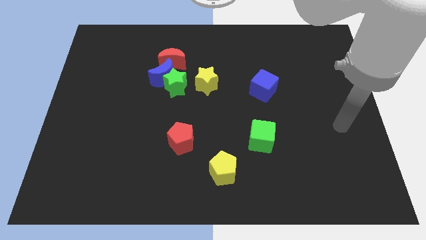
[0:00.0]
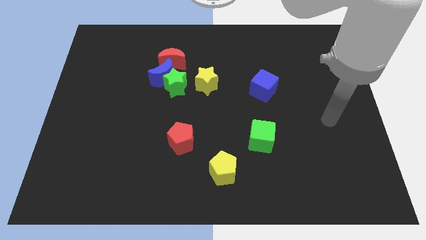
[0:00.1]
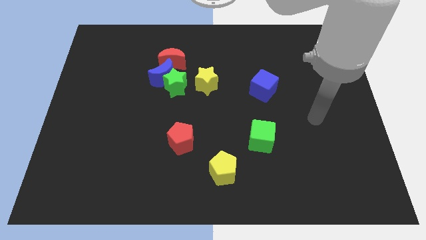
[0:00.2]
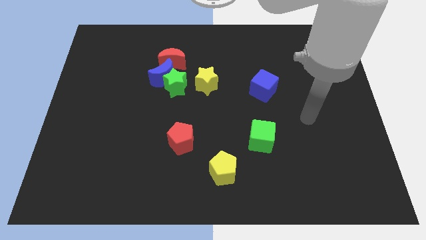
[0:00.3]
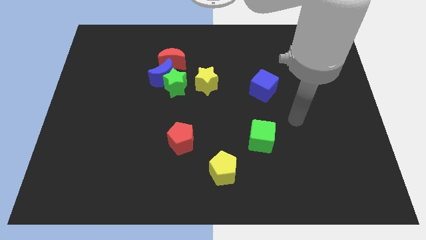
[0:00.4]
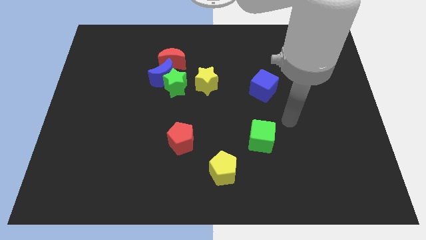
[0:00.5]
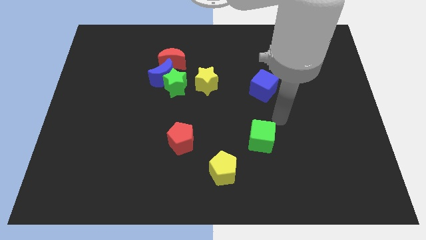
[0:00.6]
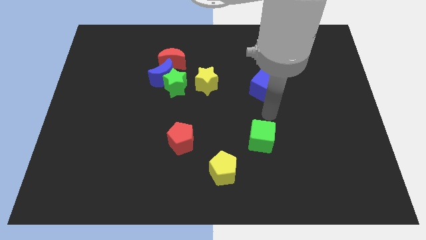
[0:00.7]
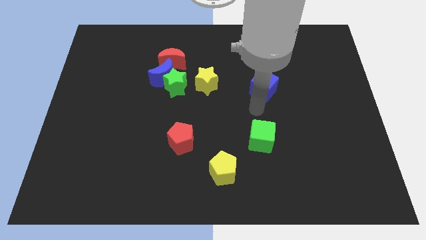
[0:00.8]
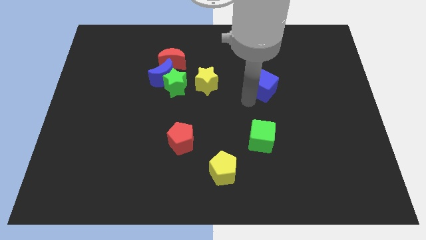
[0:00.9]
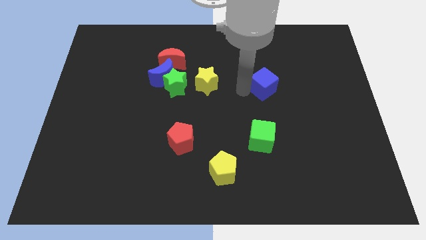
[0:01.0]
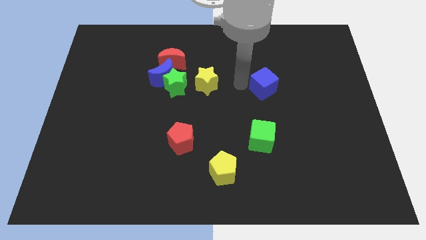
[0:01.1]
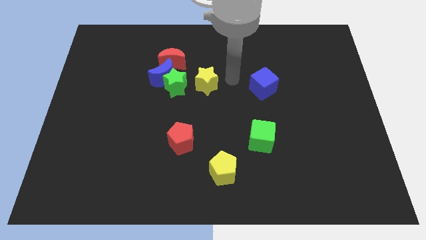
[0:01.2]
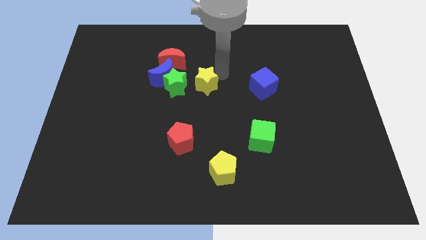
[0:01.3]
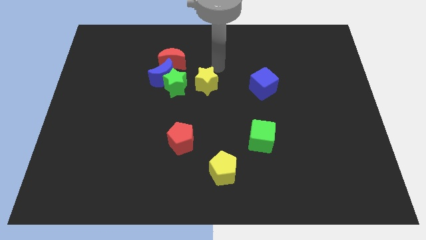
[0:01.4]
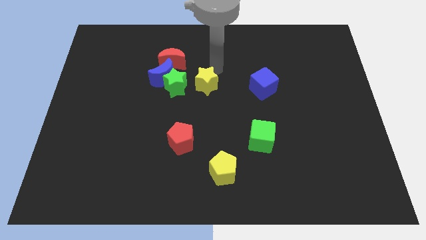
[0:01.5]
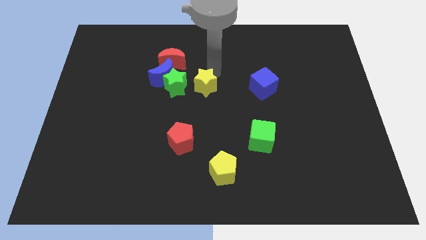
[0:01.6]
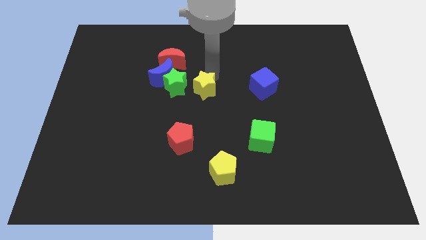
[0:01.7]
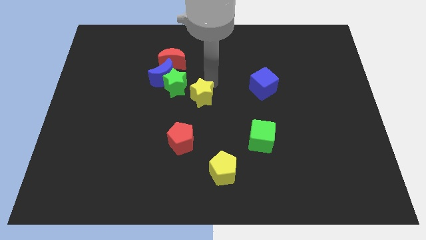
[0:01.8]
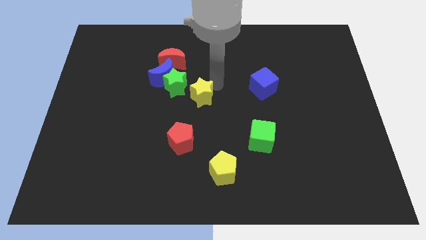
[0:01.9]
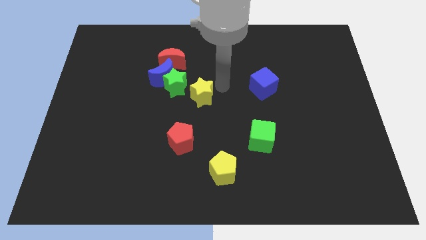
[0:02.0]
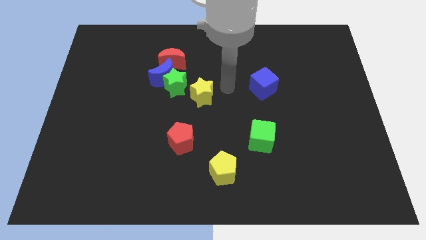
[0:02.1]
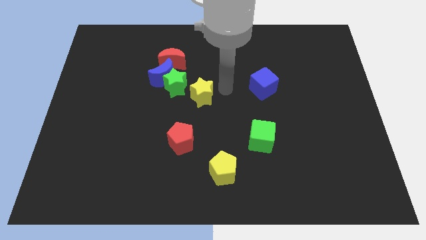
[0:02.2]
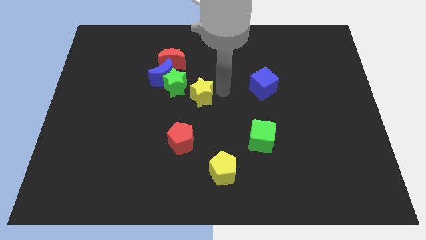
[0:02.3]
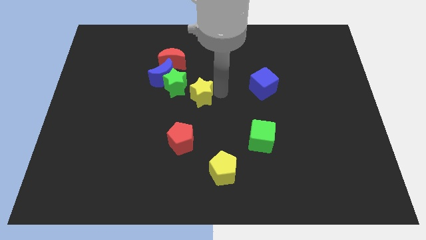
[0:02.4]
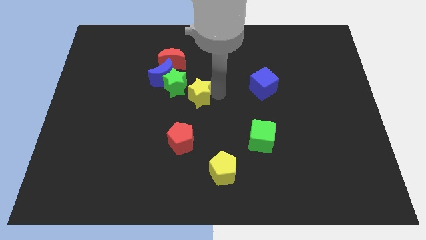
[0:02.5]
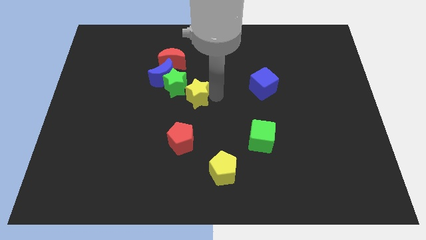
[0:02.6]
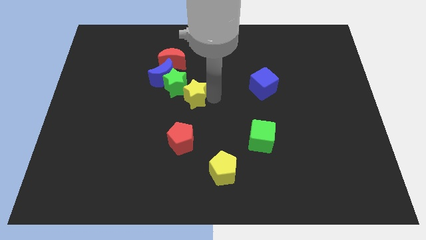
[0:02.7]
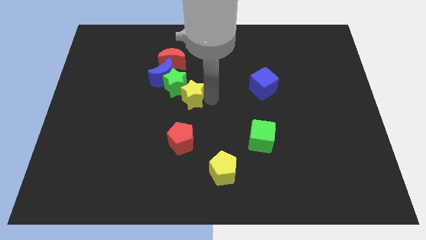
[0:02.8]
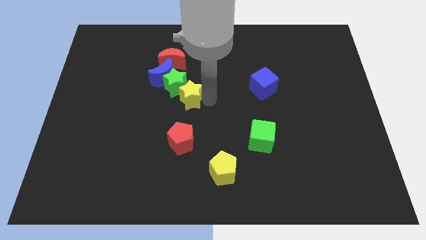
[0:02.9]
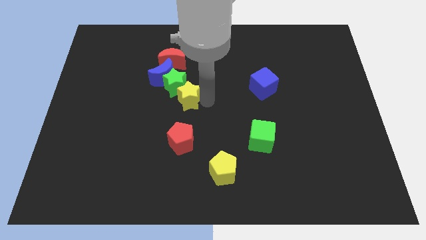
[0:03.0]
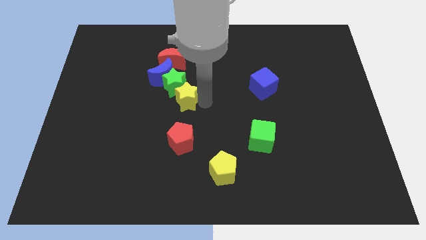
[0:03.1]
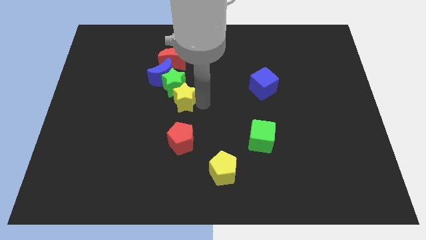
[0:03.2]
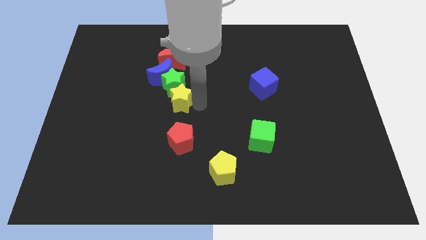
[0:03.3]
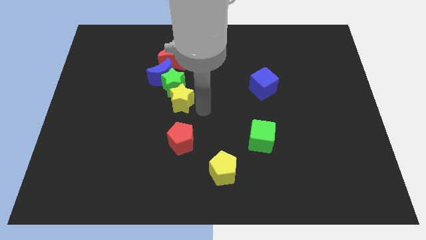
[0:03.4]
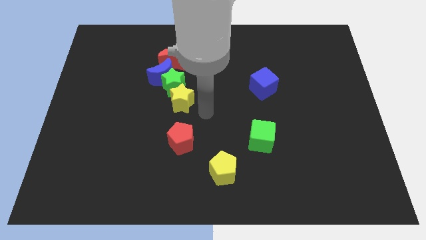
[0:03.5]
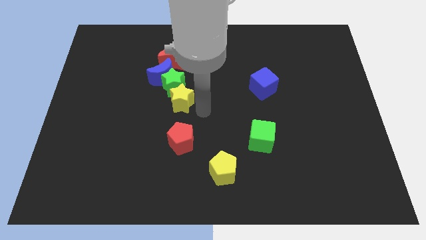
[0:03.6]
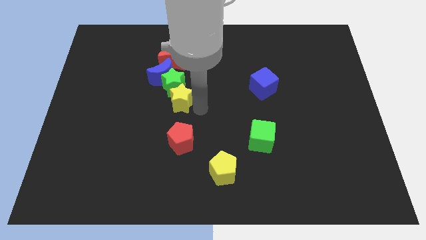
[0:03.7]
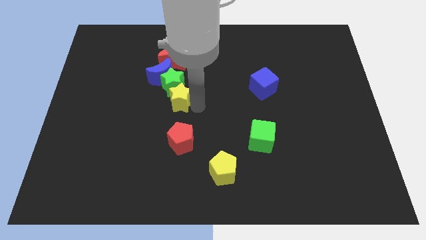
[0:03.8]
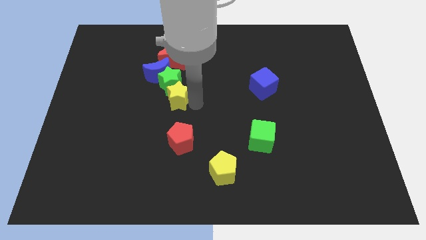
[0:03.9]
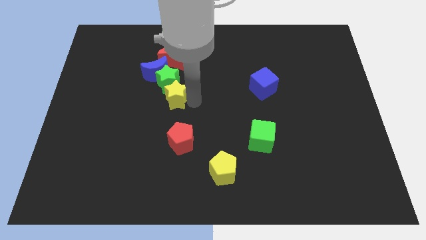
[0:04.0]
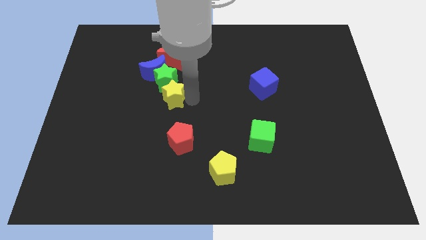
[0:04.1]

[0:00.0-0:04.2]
slide the yellow star a bit left

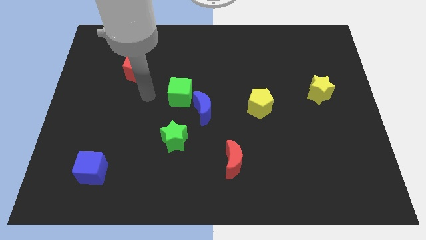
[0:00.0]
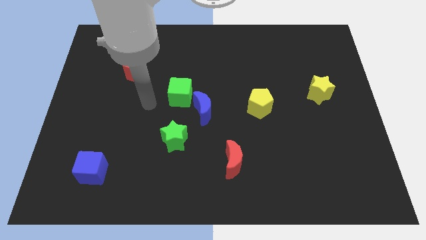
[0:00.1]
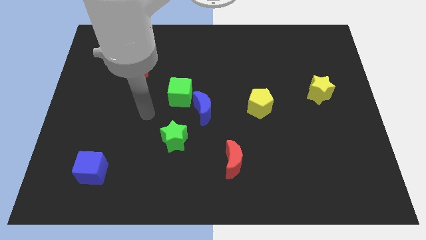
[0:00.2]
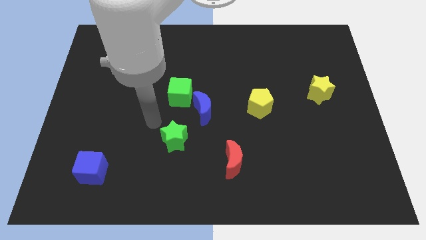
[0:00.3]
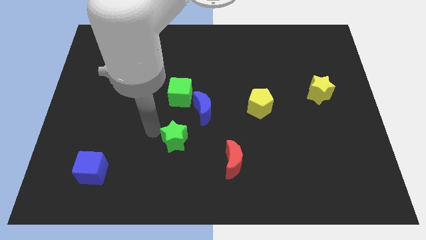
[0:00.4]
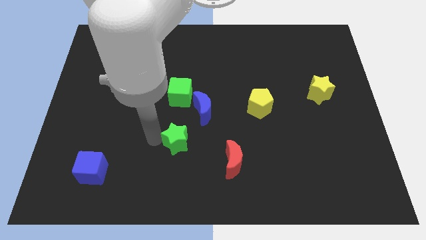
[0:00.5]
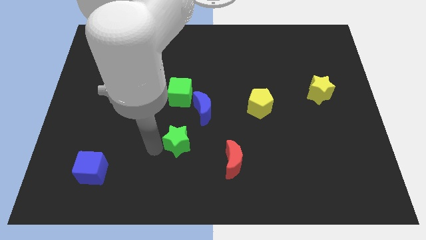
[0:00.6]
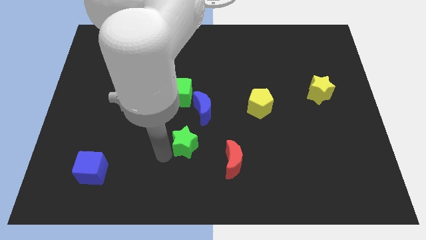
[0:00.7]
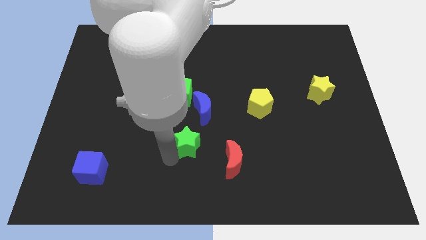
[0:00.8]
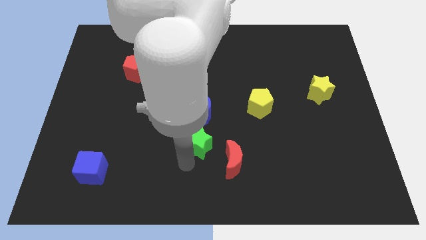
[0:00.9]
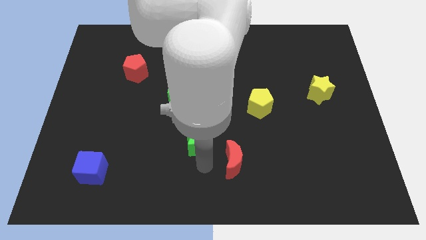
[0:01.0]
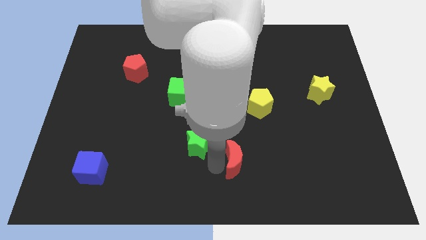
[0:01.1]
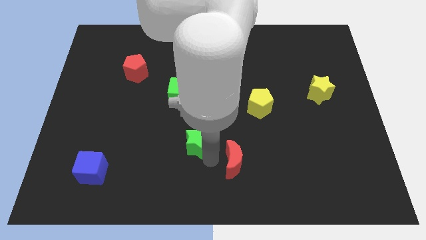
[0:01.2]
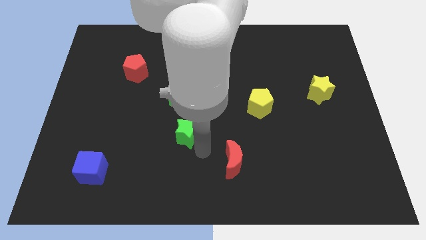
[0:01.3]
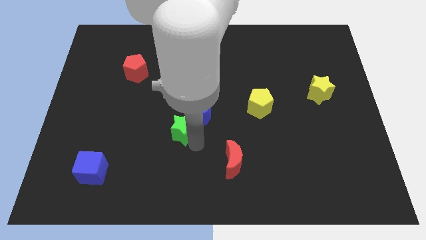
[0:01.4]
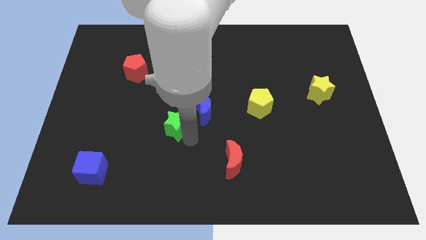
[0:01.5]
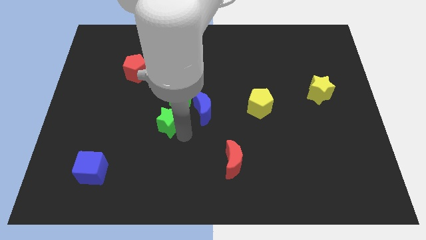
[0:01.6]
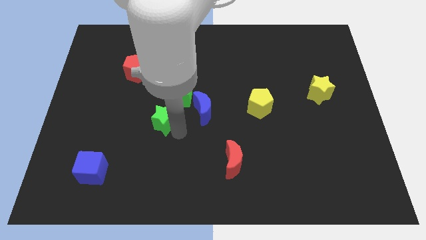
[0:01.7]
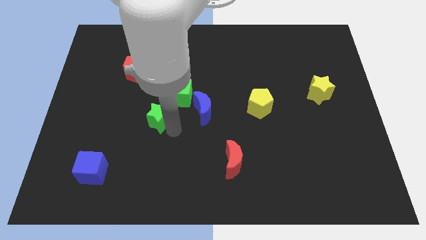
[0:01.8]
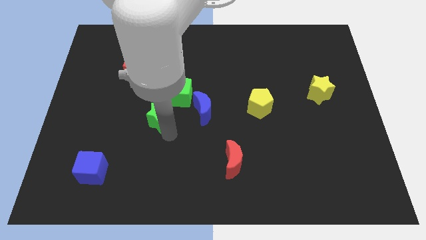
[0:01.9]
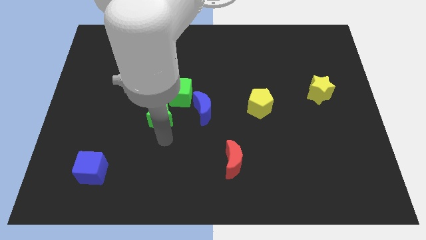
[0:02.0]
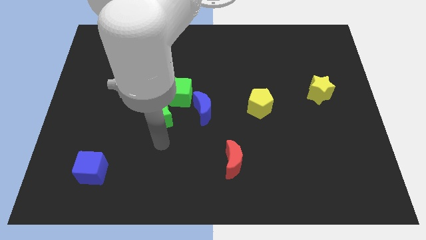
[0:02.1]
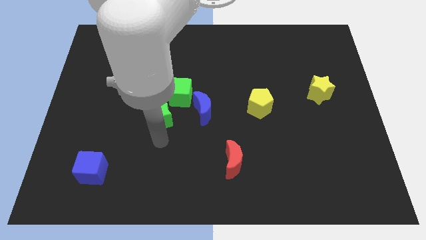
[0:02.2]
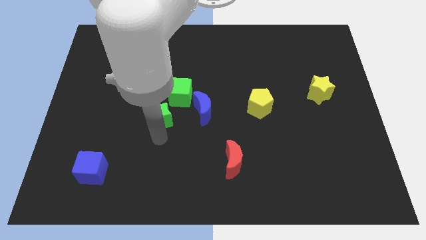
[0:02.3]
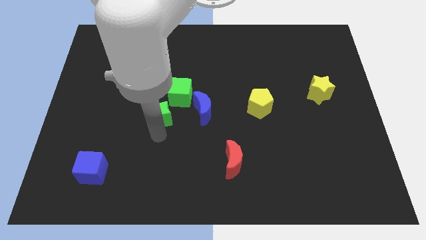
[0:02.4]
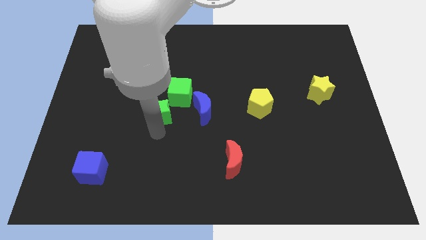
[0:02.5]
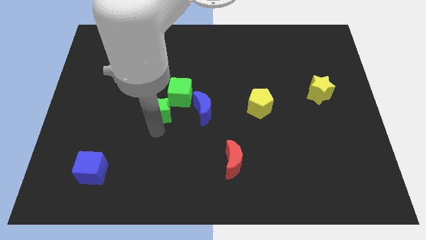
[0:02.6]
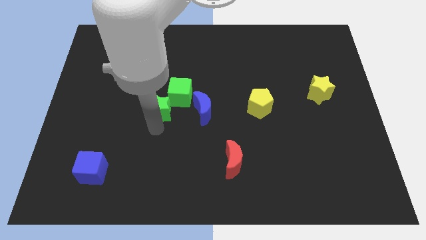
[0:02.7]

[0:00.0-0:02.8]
slightly push the green star up

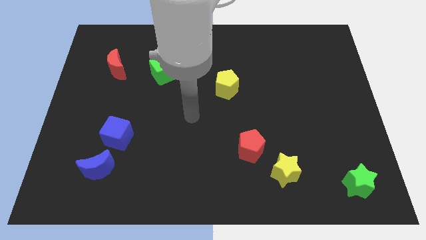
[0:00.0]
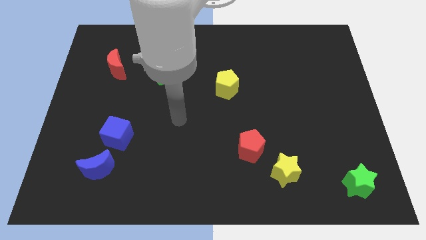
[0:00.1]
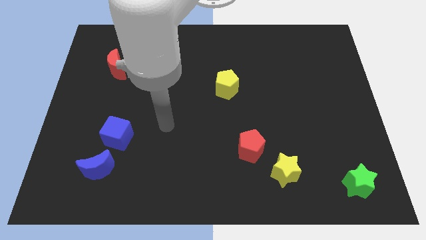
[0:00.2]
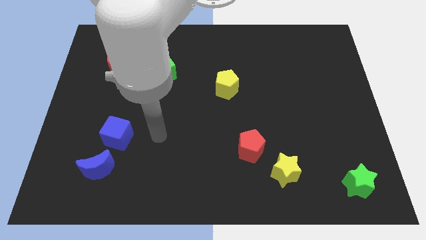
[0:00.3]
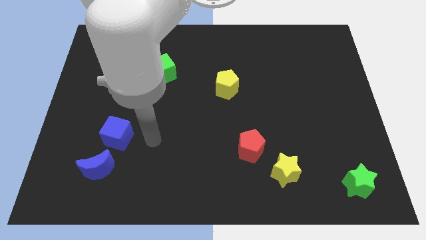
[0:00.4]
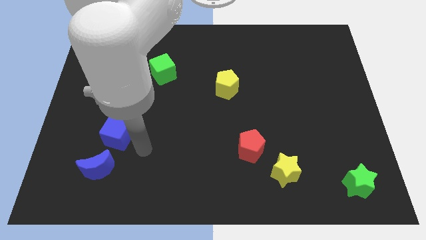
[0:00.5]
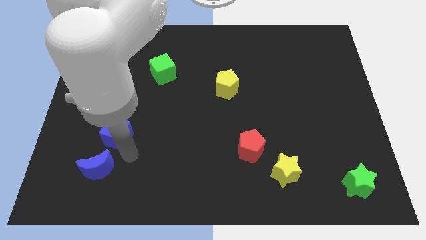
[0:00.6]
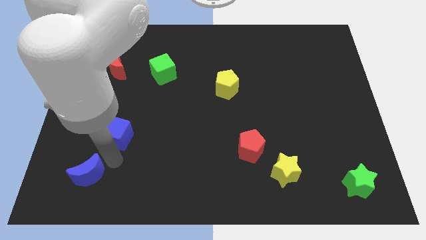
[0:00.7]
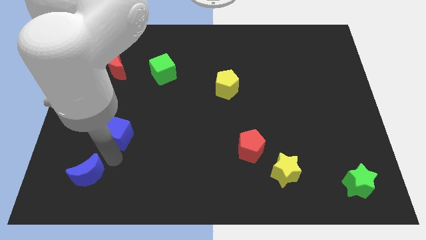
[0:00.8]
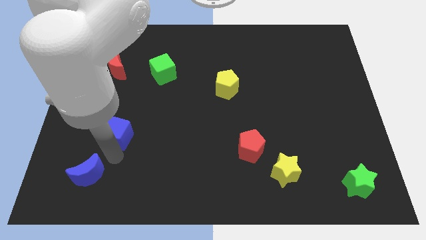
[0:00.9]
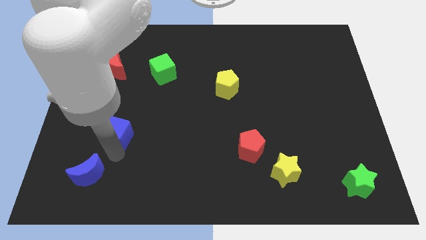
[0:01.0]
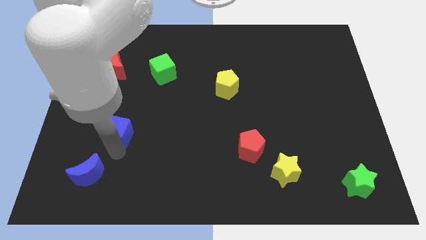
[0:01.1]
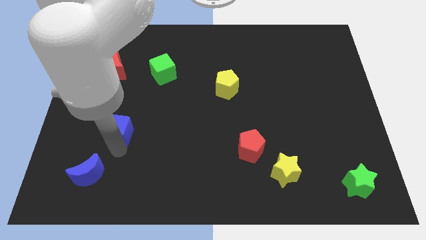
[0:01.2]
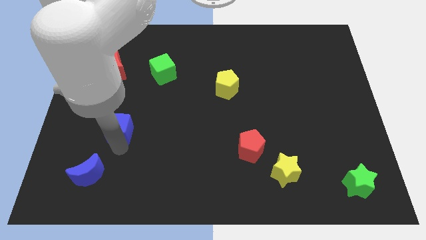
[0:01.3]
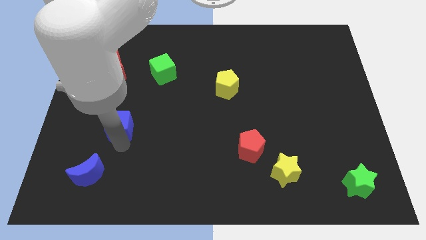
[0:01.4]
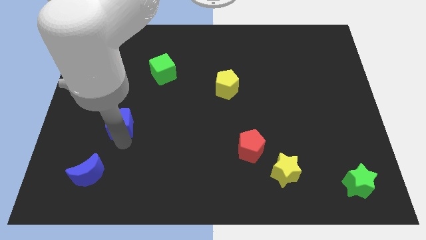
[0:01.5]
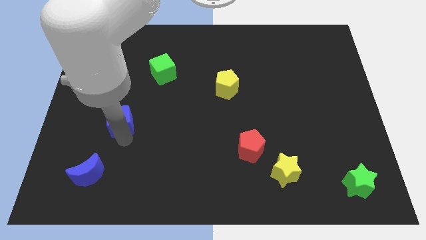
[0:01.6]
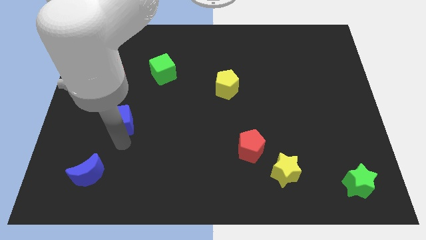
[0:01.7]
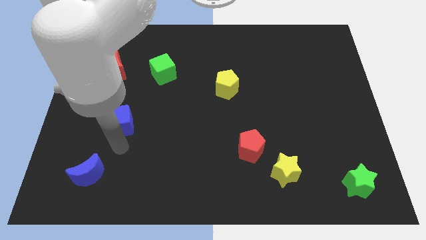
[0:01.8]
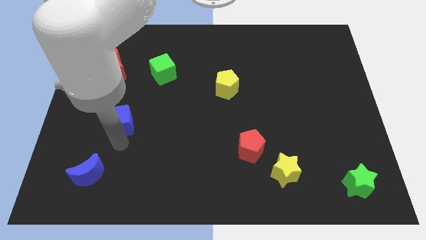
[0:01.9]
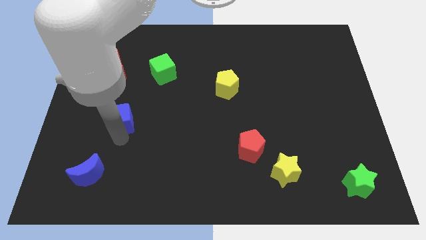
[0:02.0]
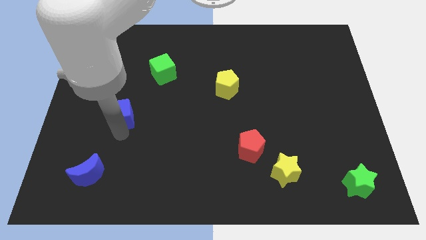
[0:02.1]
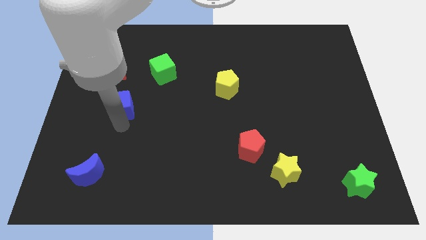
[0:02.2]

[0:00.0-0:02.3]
push the blue cube a little bit upwards
